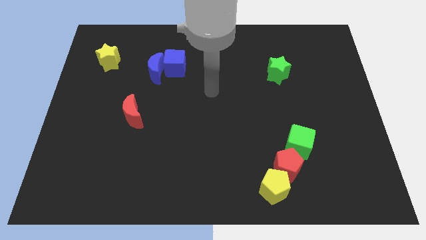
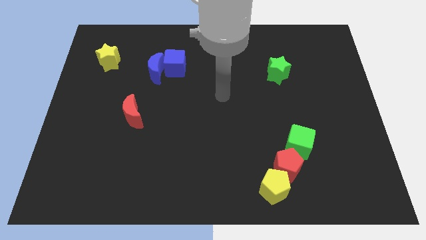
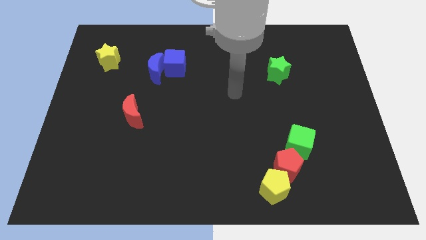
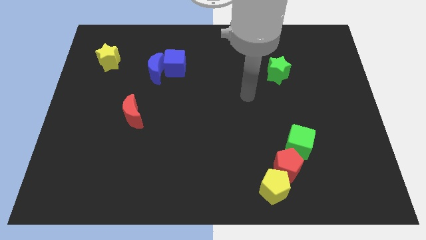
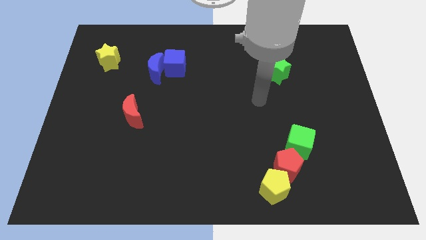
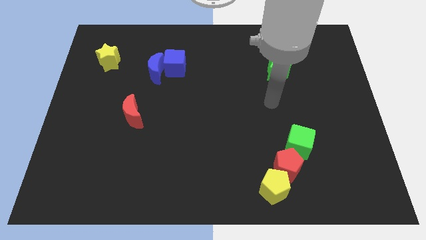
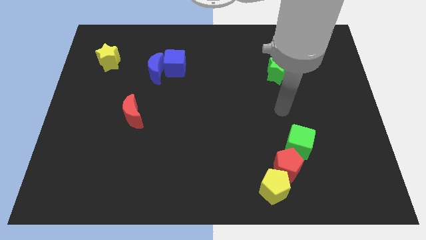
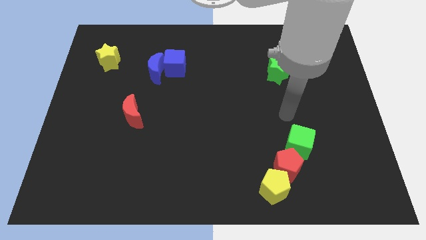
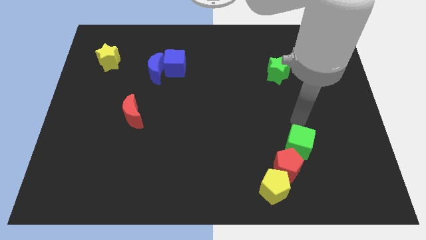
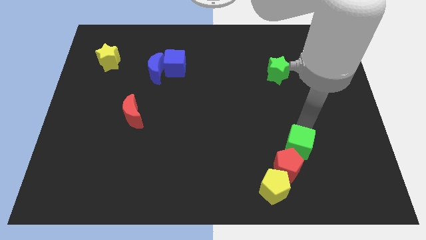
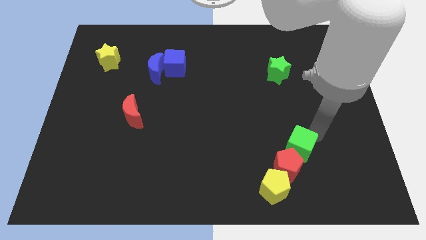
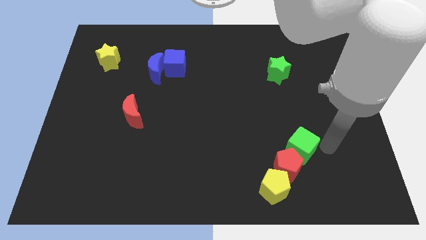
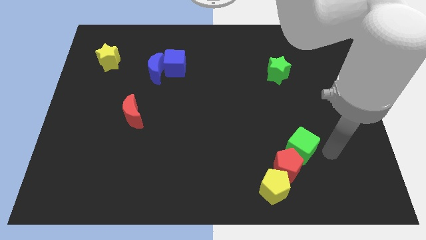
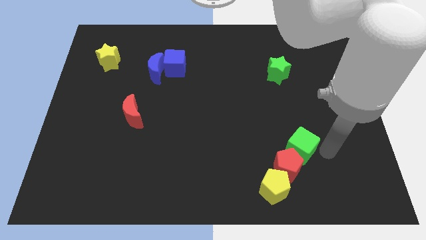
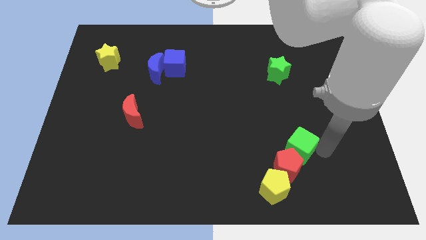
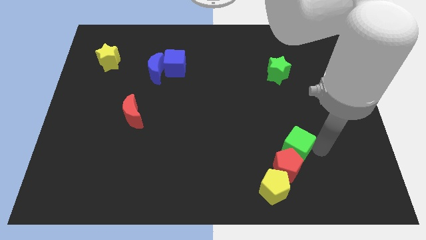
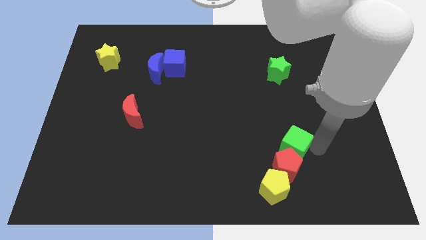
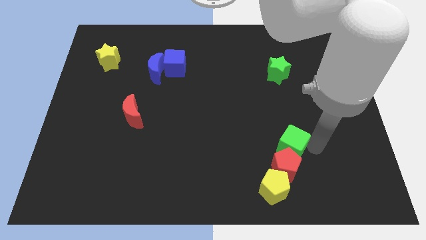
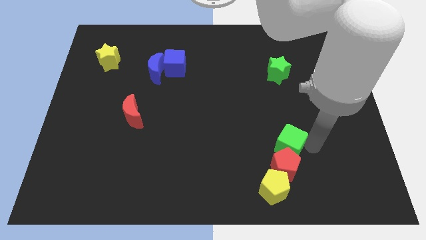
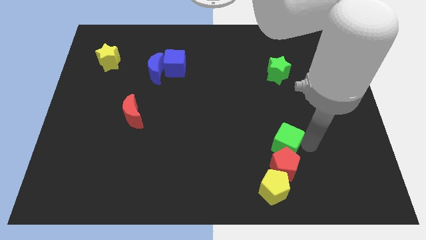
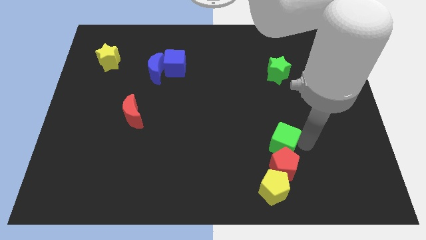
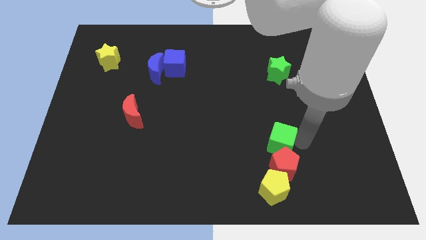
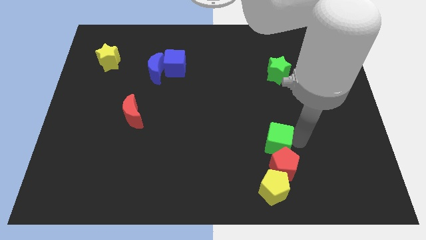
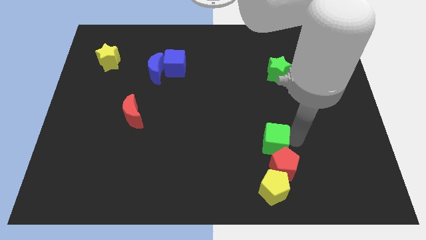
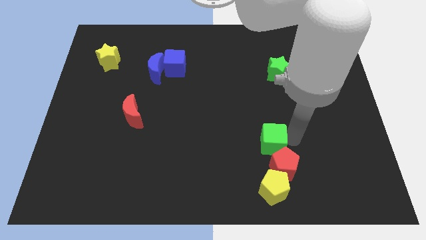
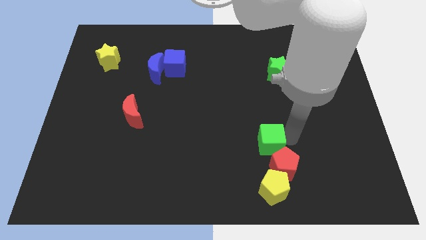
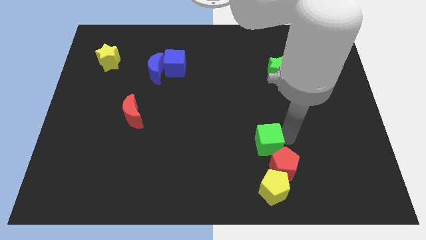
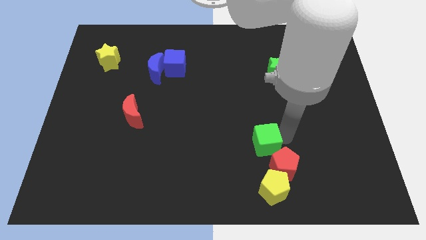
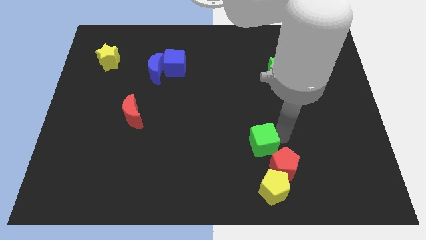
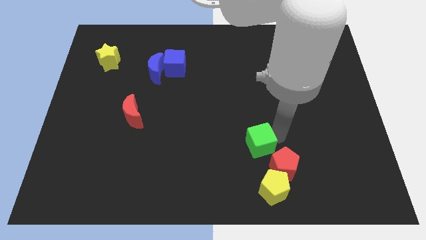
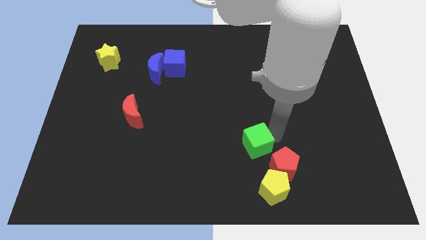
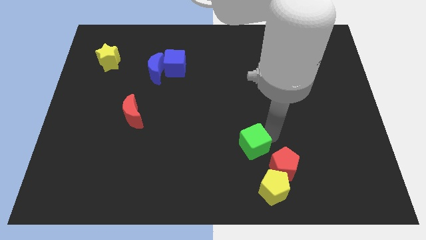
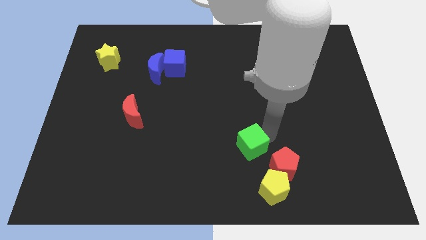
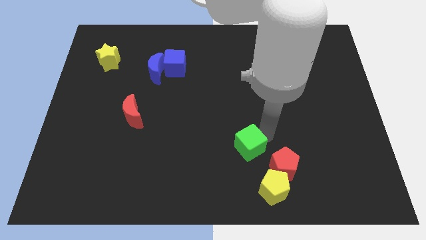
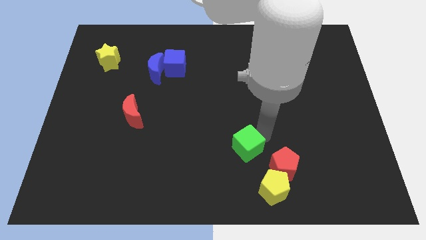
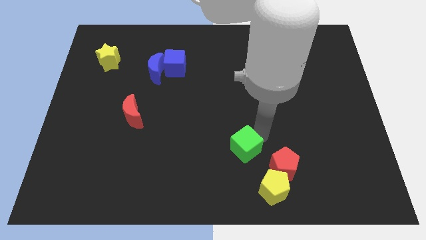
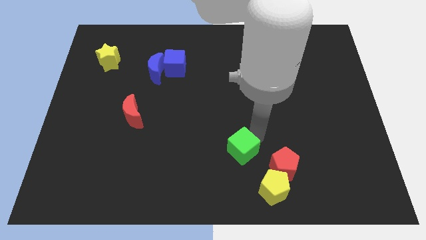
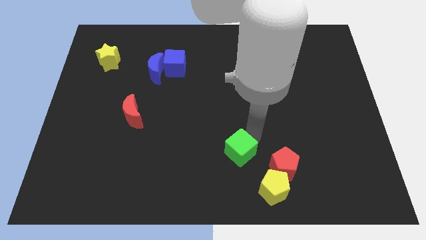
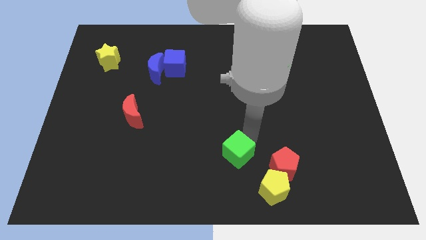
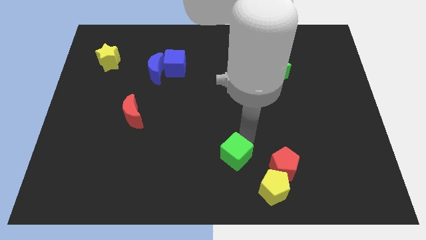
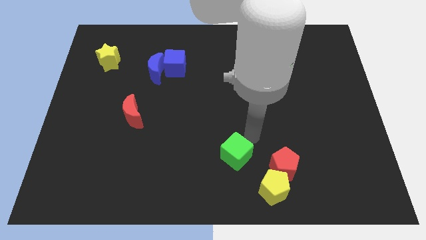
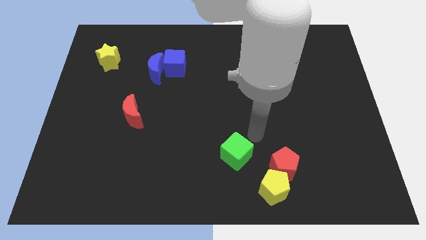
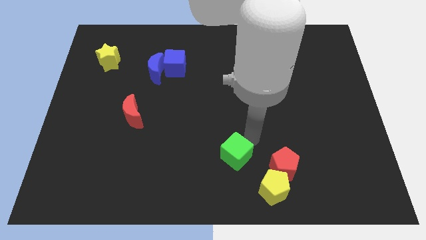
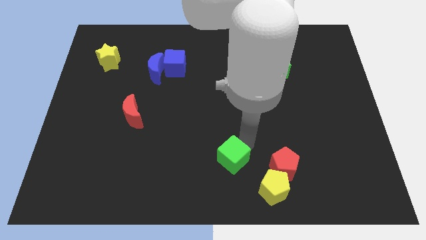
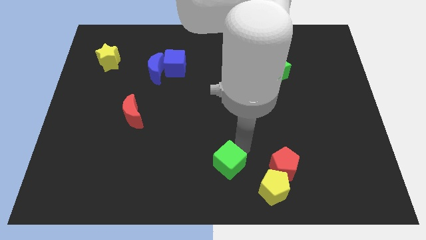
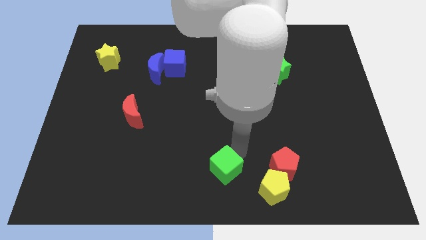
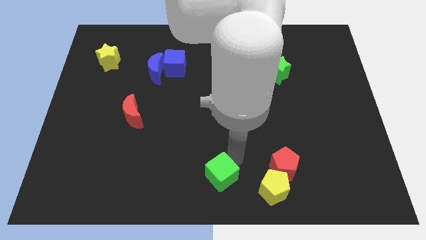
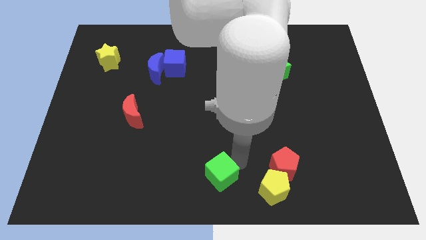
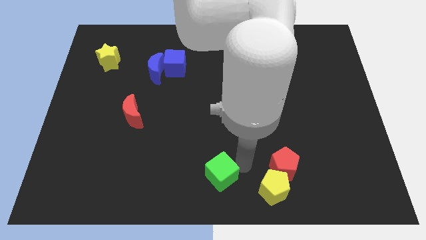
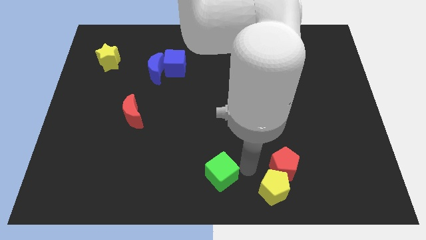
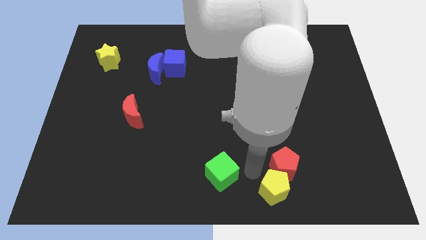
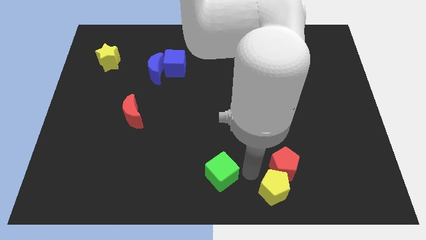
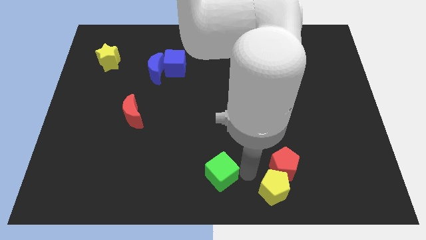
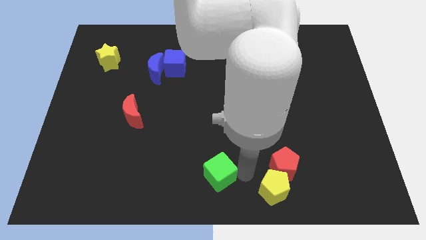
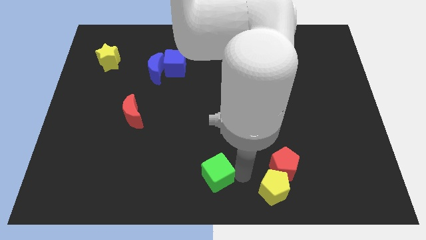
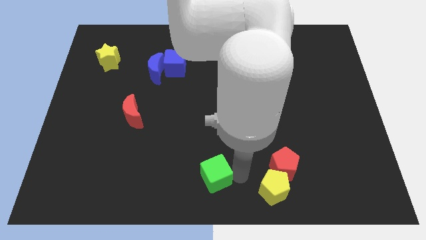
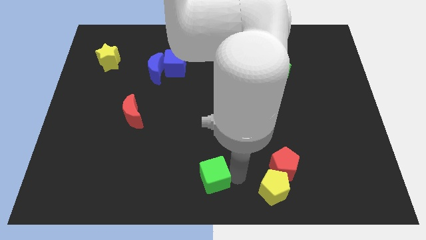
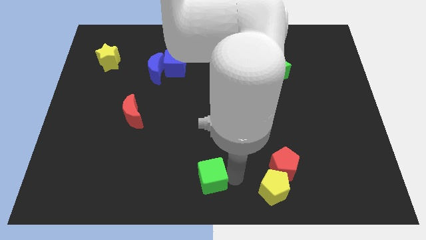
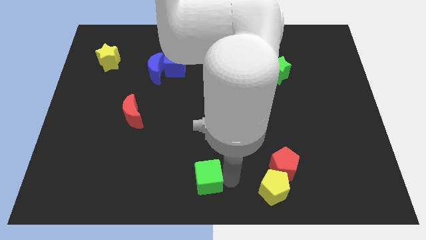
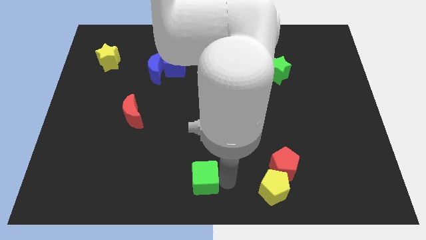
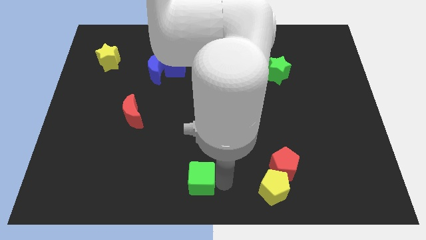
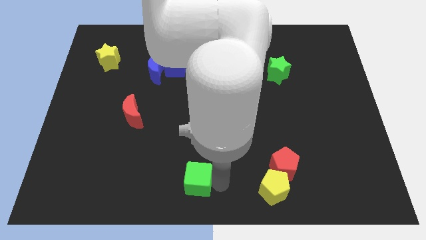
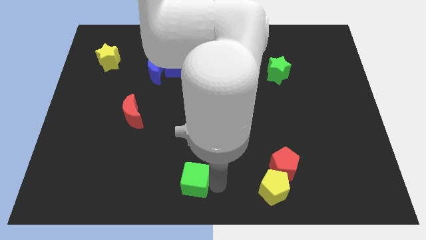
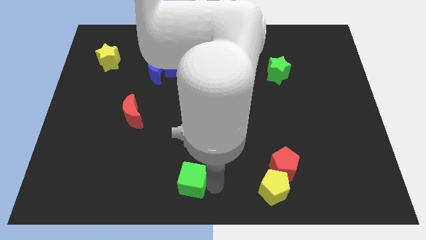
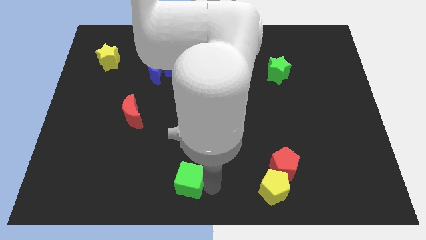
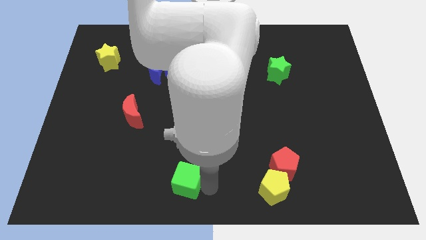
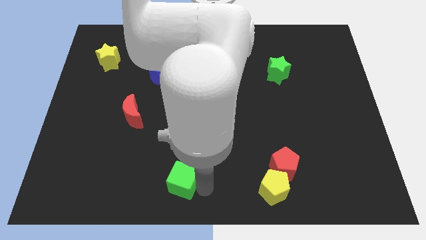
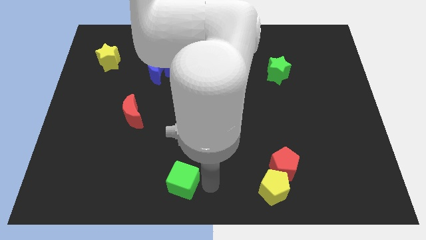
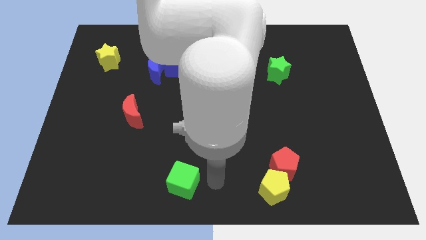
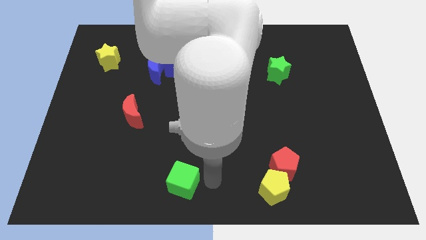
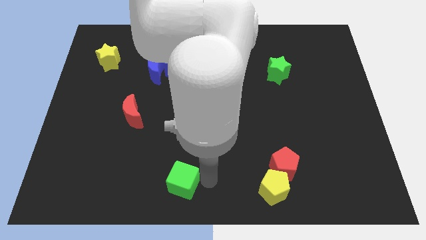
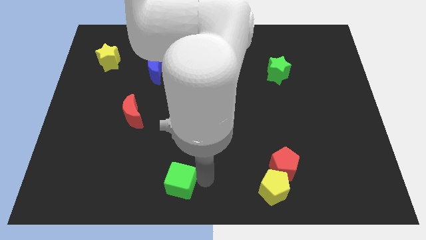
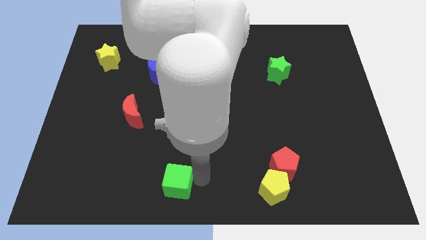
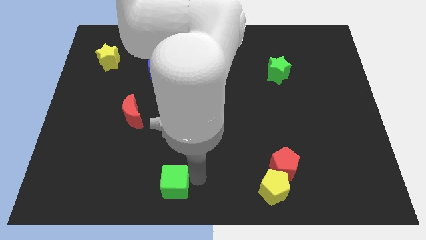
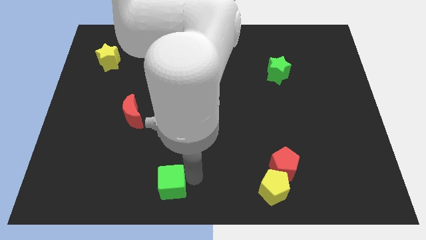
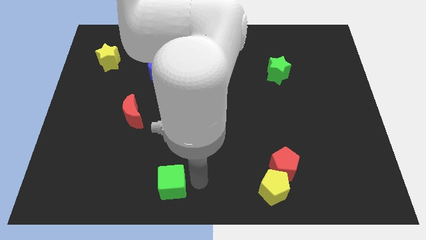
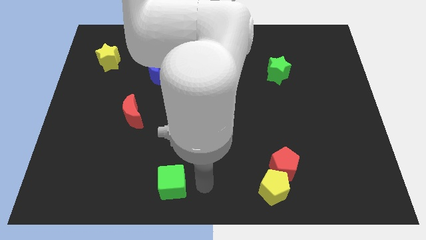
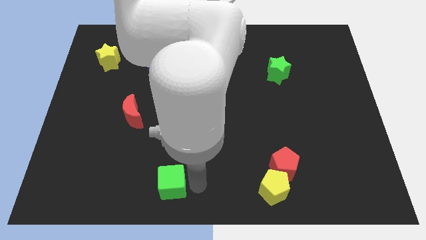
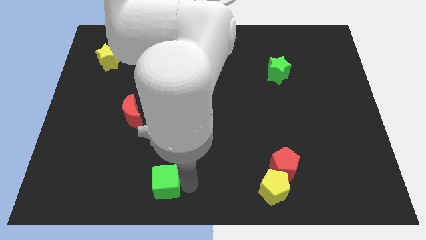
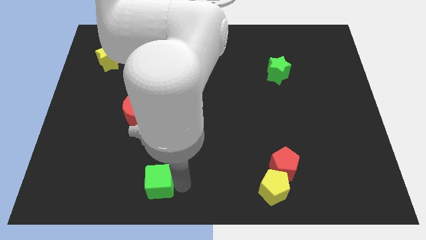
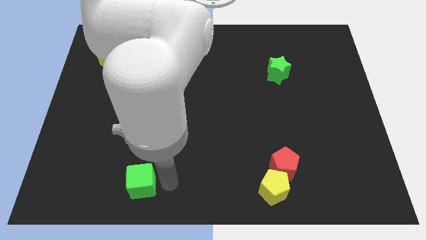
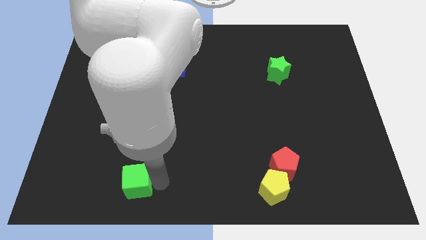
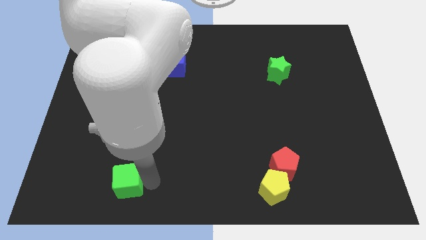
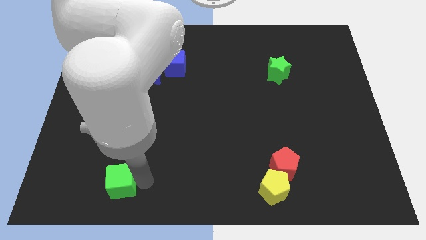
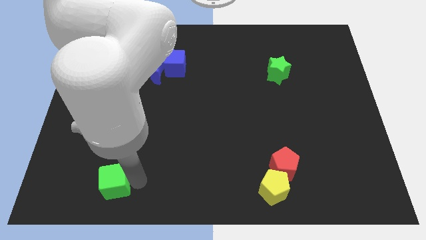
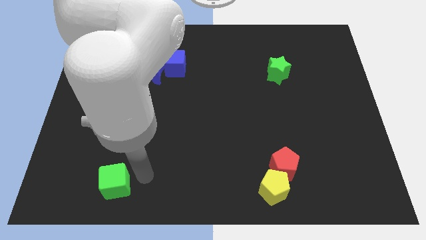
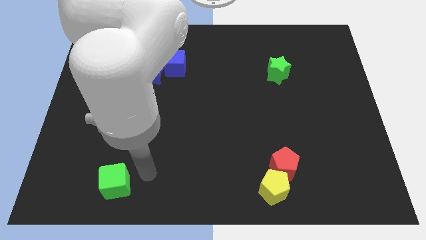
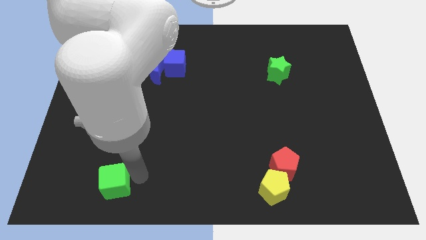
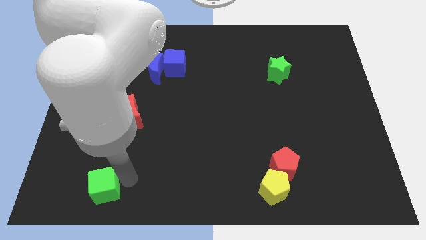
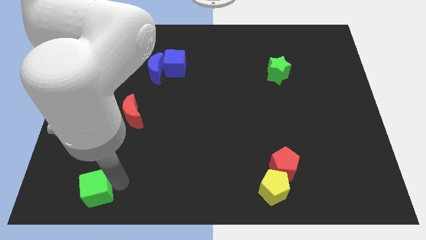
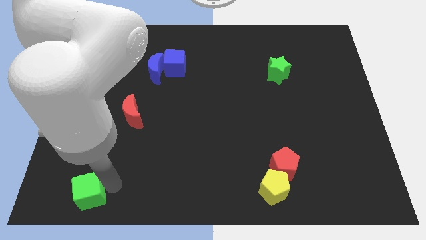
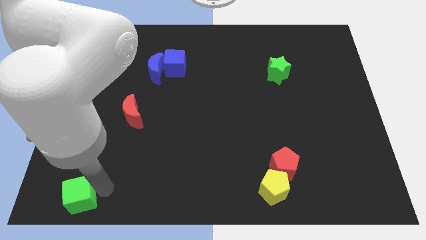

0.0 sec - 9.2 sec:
slide the green cube to the bottom left corner
